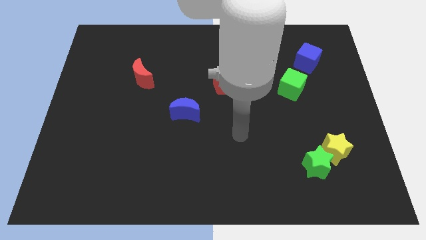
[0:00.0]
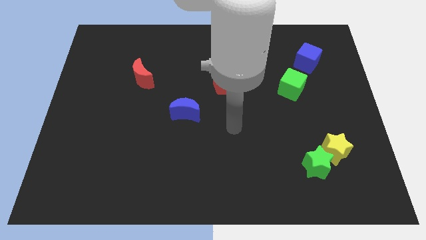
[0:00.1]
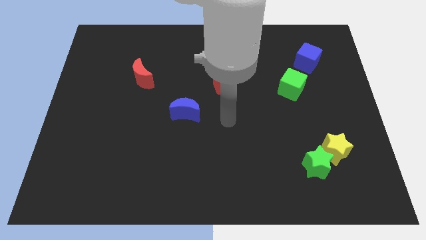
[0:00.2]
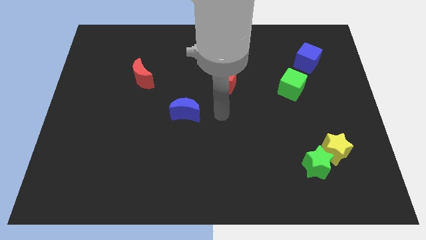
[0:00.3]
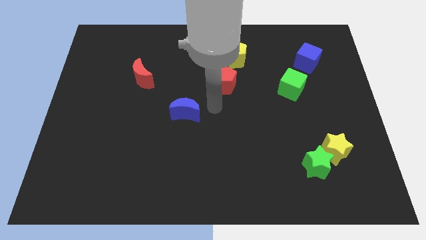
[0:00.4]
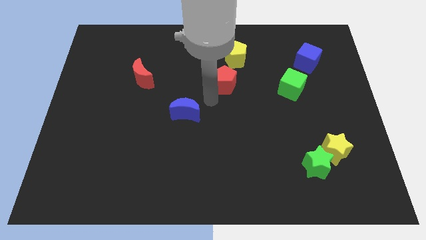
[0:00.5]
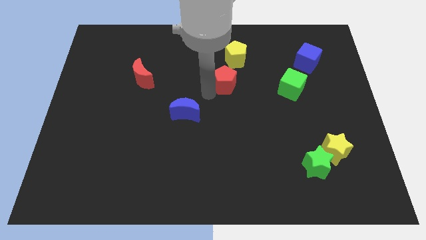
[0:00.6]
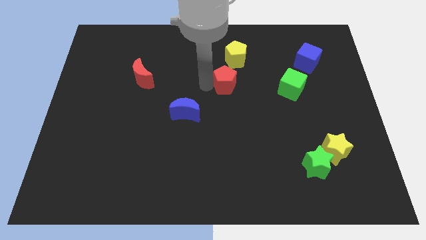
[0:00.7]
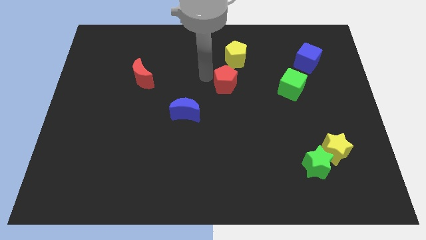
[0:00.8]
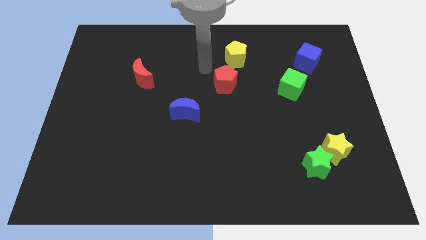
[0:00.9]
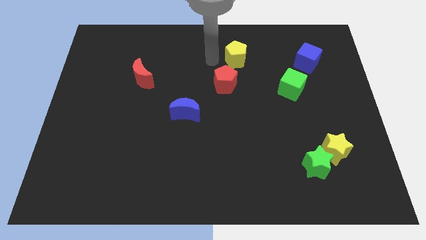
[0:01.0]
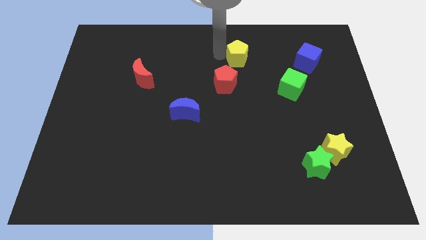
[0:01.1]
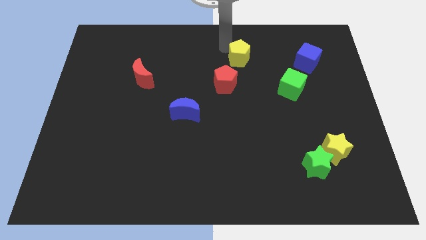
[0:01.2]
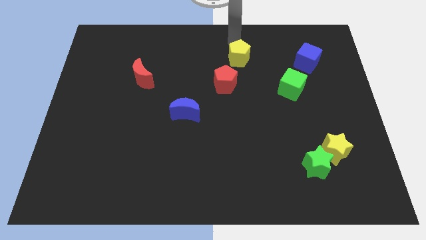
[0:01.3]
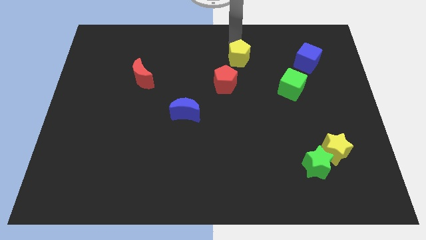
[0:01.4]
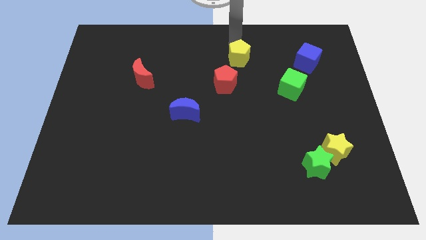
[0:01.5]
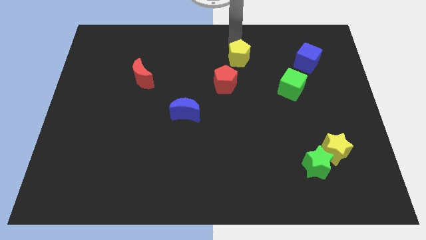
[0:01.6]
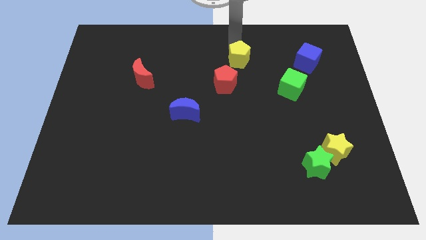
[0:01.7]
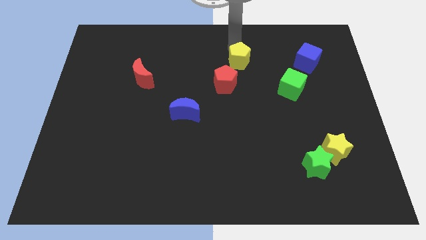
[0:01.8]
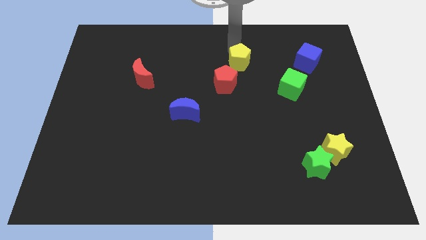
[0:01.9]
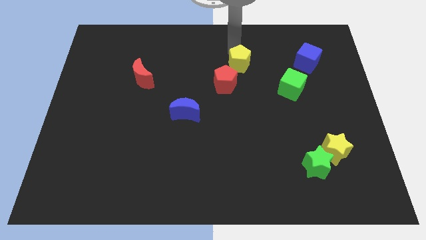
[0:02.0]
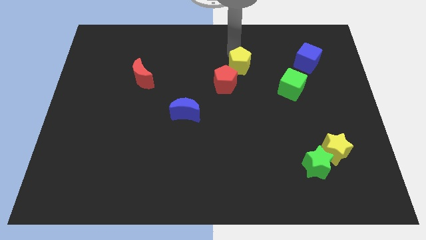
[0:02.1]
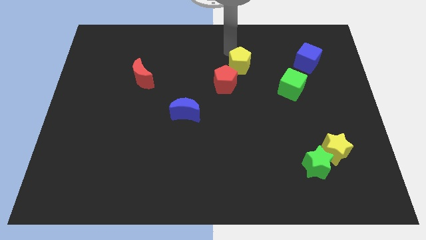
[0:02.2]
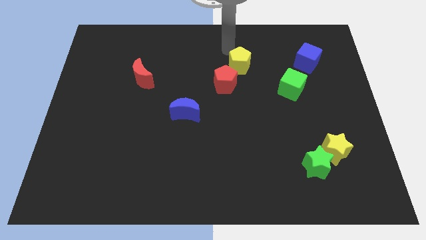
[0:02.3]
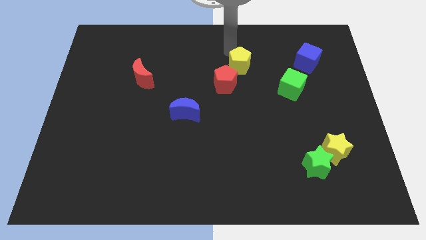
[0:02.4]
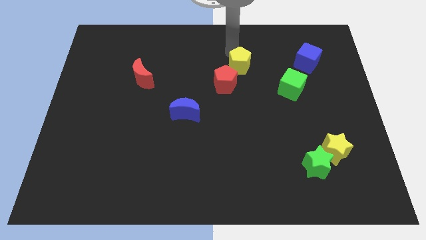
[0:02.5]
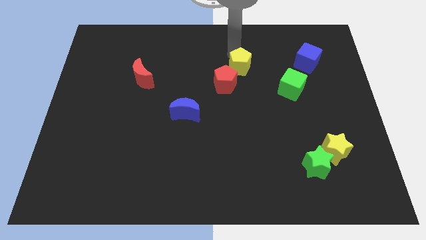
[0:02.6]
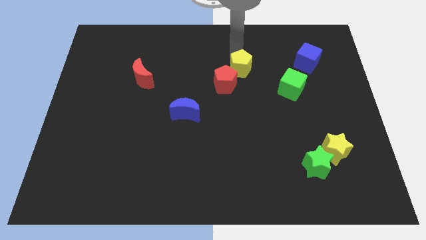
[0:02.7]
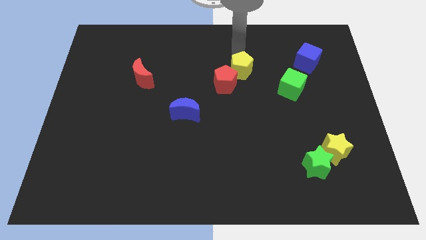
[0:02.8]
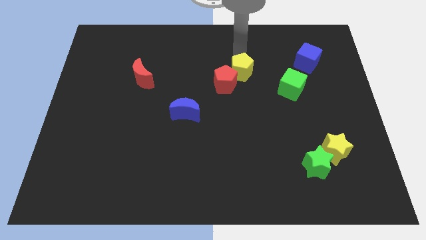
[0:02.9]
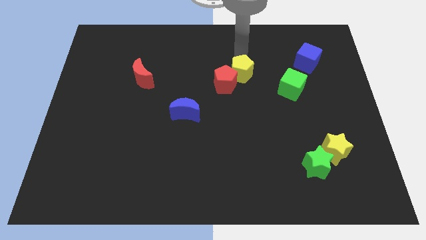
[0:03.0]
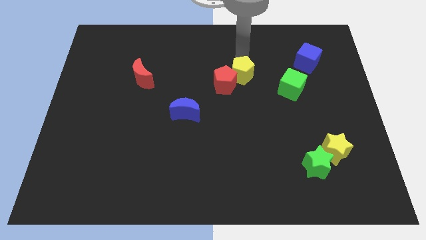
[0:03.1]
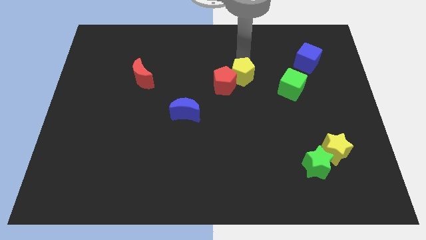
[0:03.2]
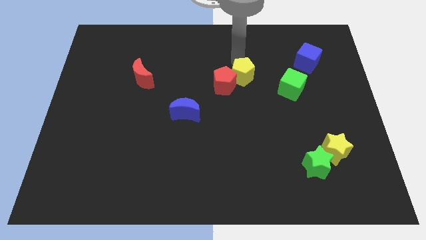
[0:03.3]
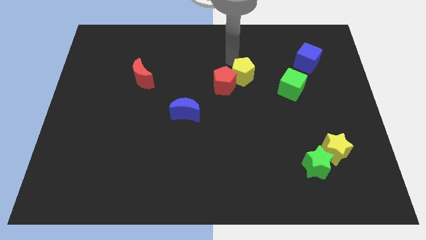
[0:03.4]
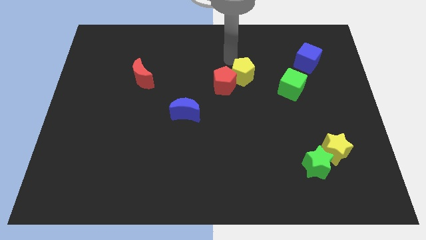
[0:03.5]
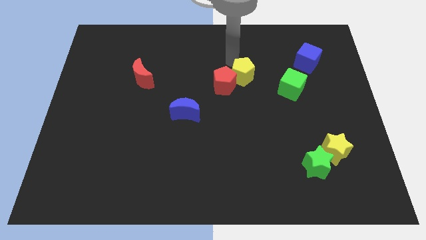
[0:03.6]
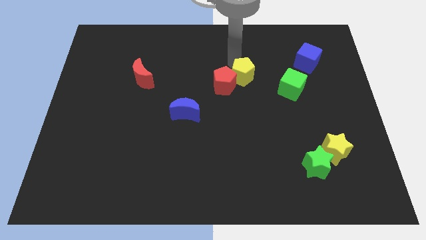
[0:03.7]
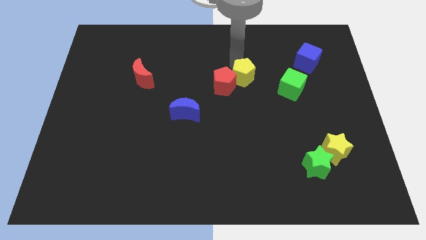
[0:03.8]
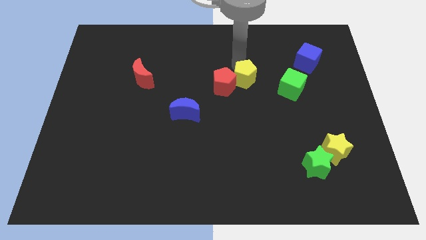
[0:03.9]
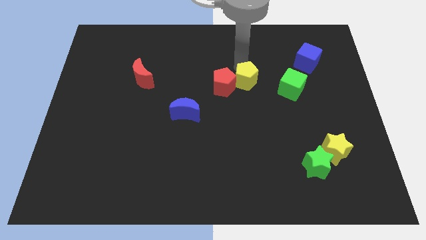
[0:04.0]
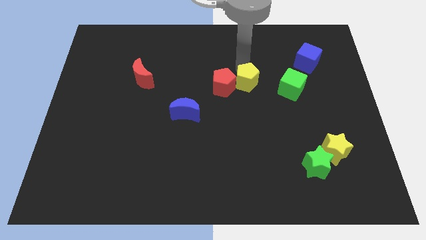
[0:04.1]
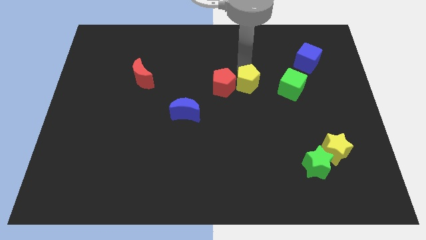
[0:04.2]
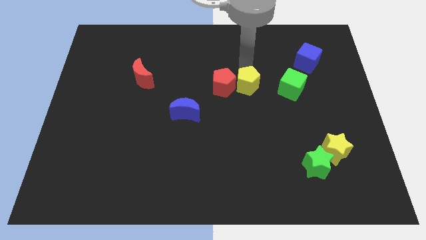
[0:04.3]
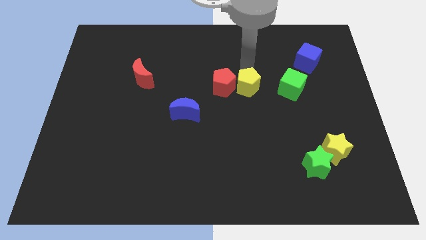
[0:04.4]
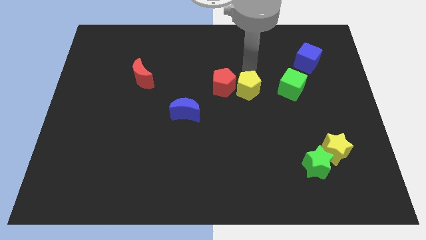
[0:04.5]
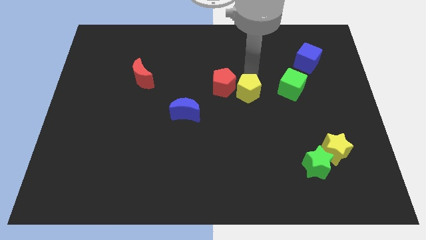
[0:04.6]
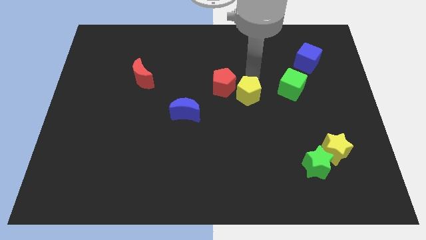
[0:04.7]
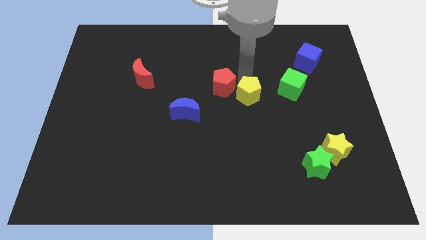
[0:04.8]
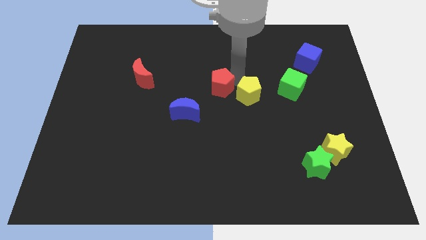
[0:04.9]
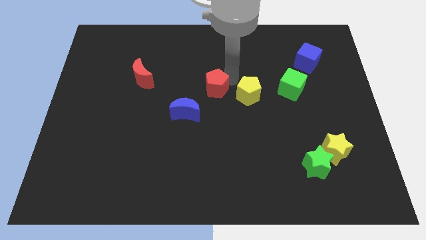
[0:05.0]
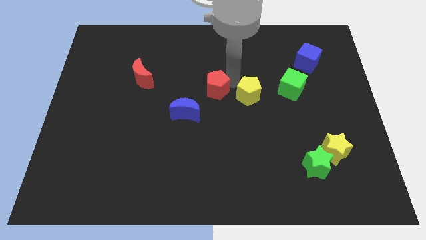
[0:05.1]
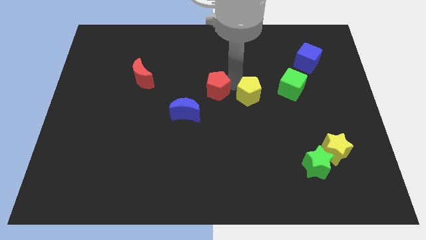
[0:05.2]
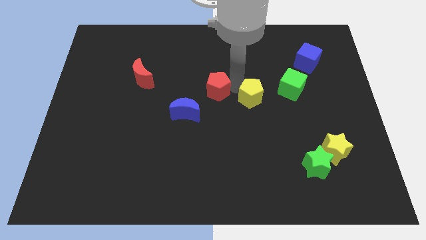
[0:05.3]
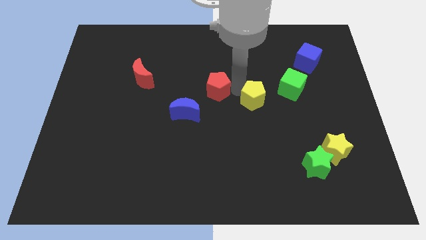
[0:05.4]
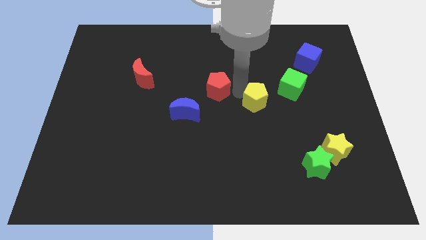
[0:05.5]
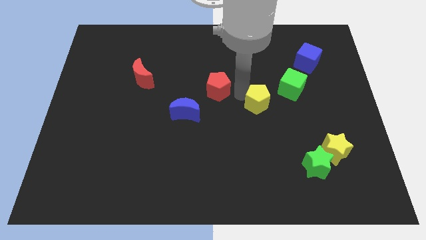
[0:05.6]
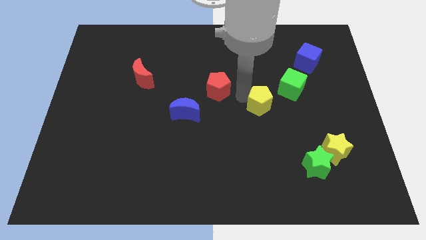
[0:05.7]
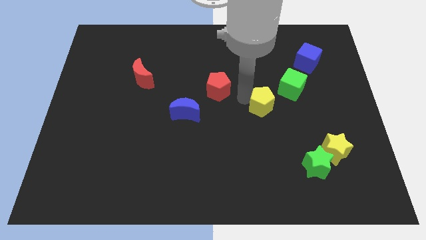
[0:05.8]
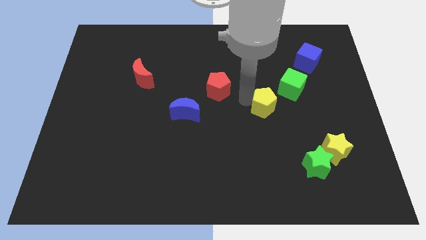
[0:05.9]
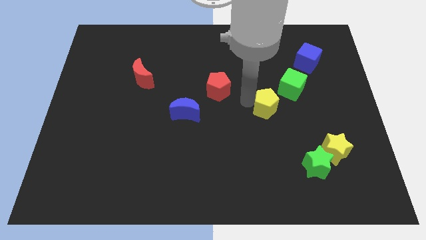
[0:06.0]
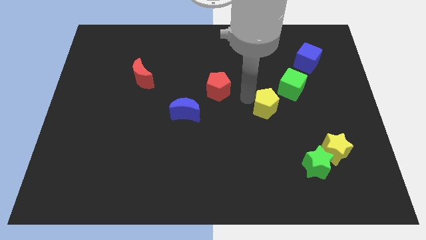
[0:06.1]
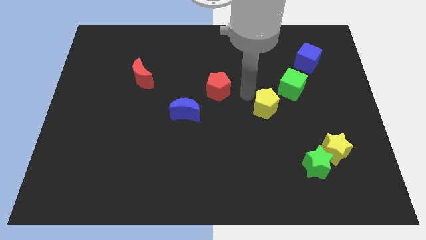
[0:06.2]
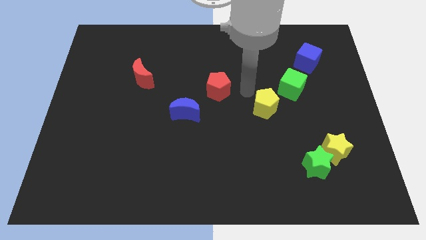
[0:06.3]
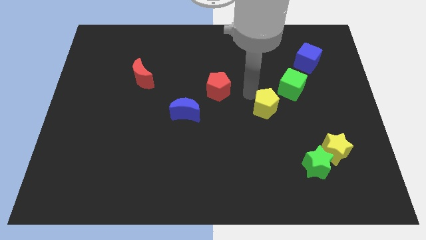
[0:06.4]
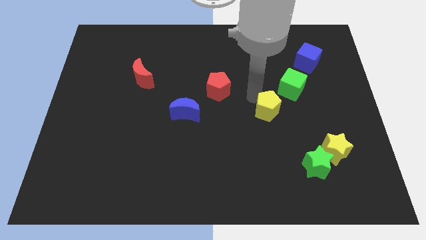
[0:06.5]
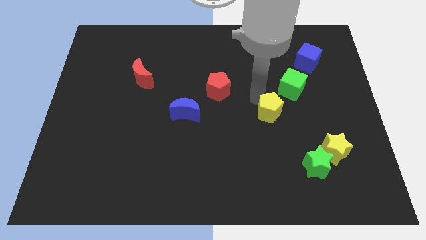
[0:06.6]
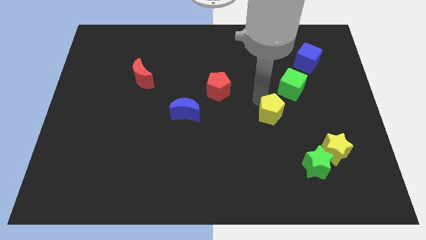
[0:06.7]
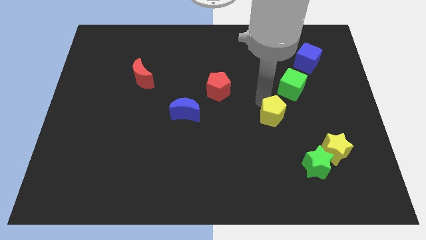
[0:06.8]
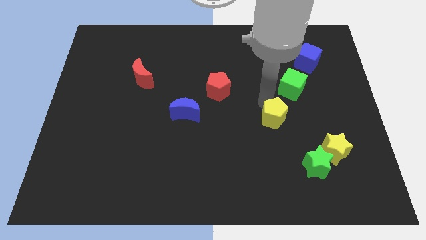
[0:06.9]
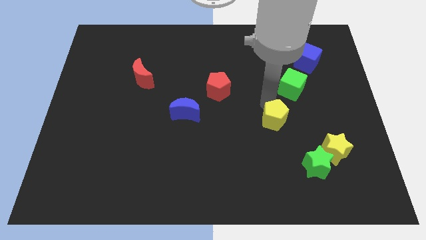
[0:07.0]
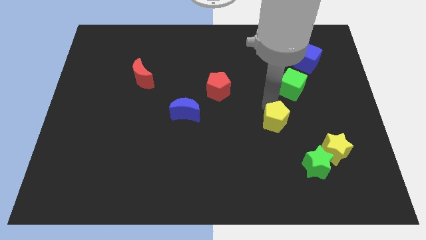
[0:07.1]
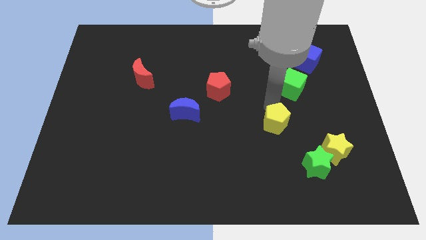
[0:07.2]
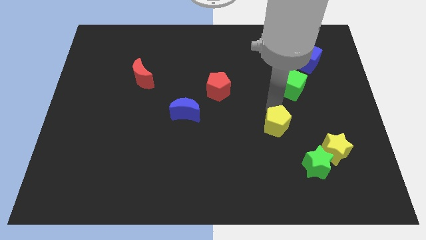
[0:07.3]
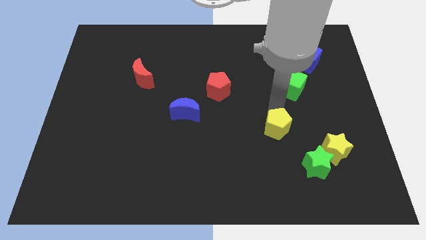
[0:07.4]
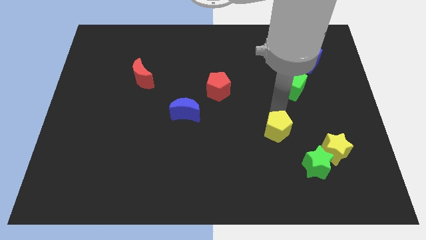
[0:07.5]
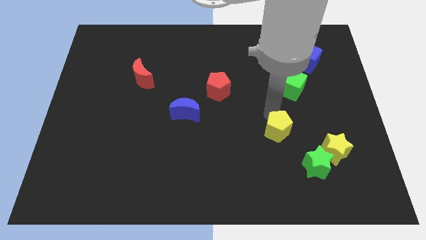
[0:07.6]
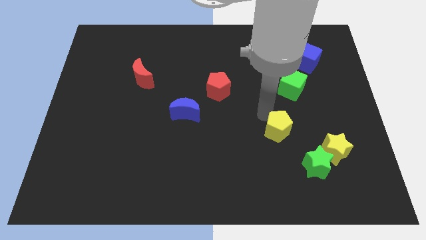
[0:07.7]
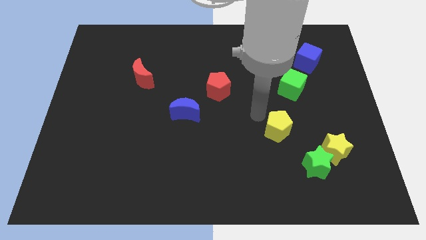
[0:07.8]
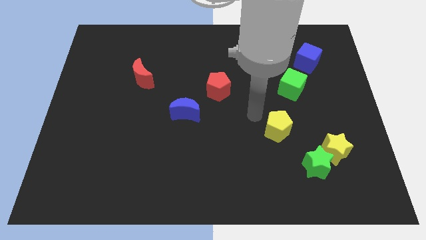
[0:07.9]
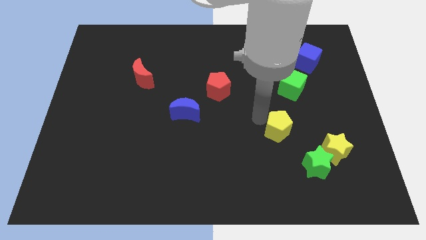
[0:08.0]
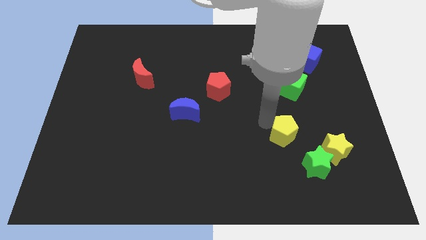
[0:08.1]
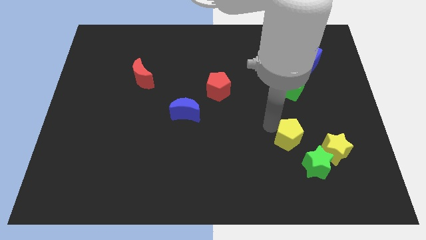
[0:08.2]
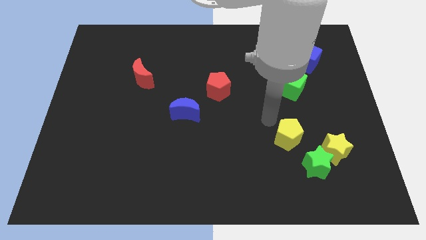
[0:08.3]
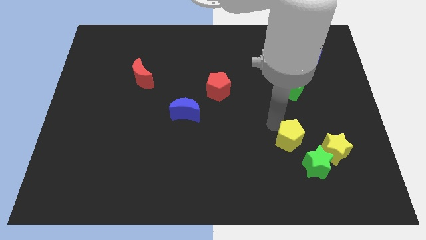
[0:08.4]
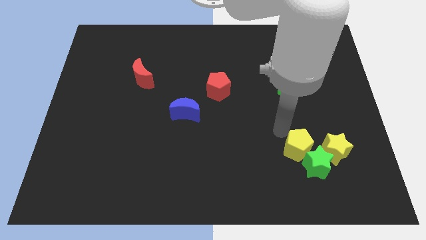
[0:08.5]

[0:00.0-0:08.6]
slide the yellow pentagon to the green star

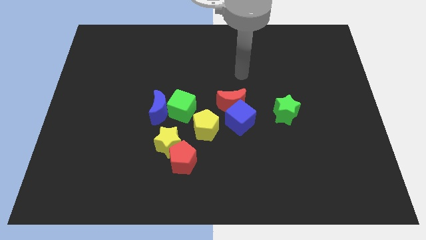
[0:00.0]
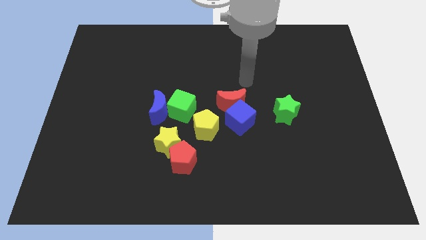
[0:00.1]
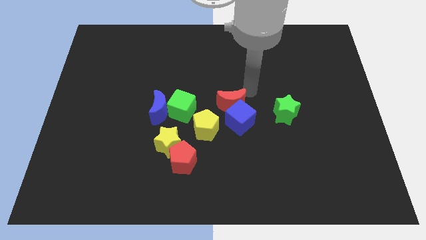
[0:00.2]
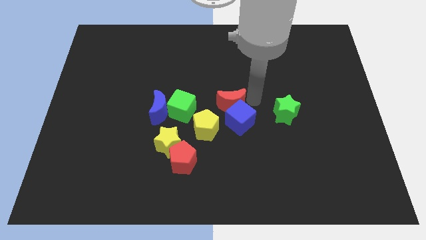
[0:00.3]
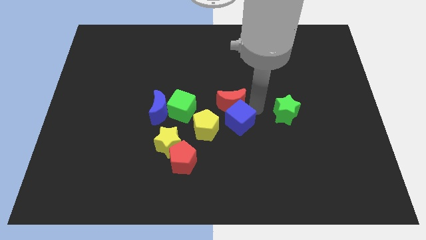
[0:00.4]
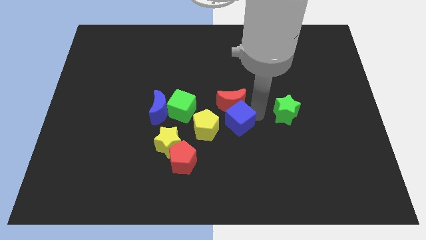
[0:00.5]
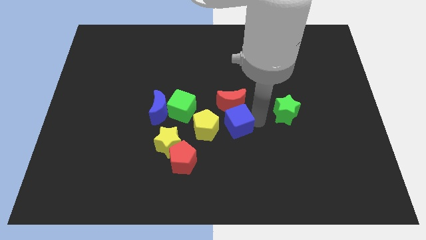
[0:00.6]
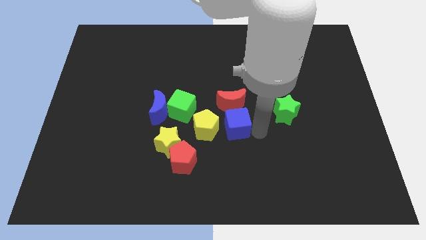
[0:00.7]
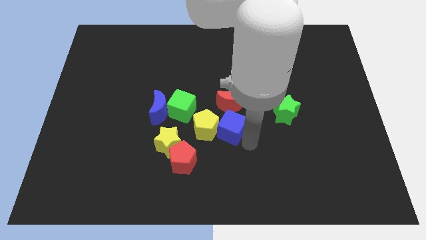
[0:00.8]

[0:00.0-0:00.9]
push the yellow pentagon close to the blue cube
